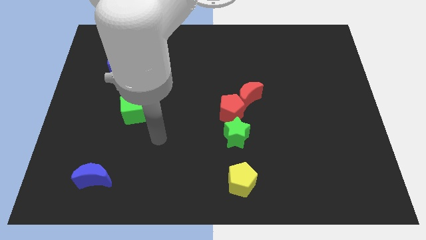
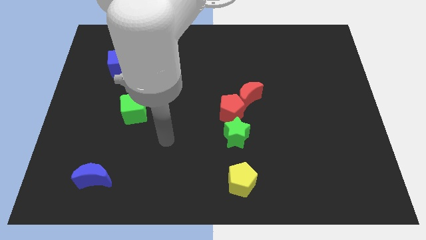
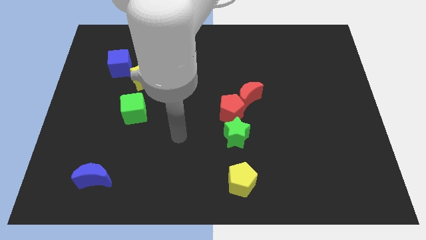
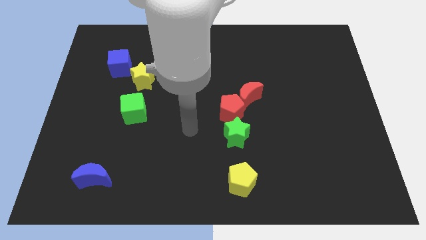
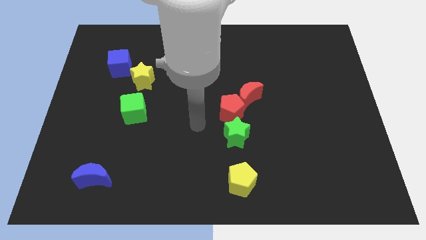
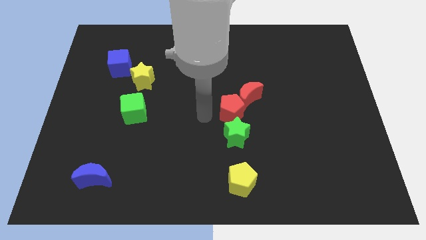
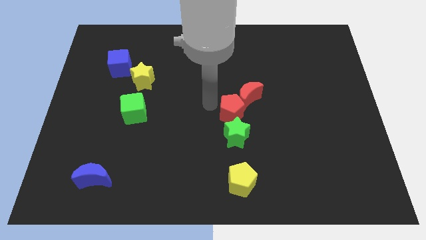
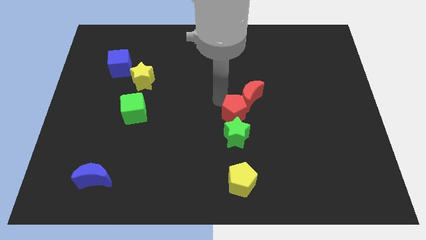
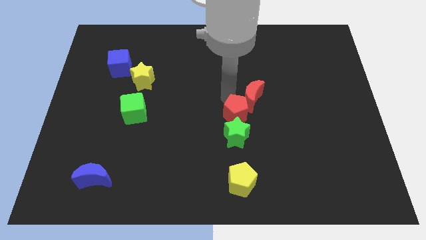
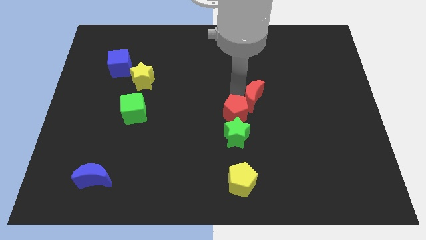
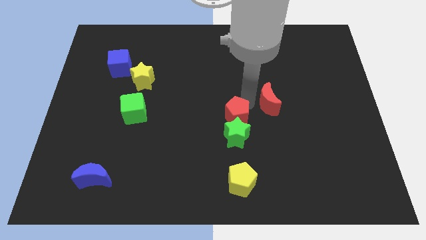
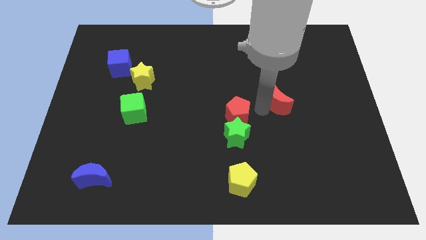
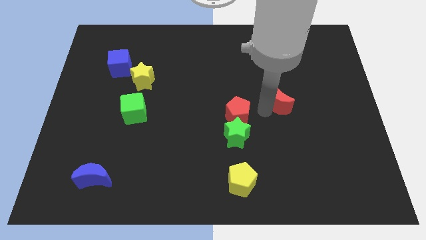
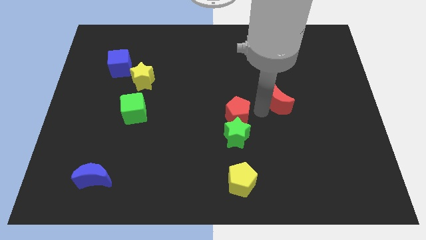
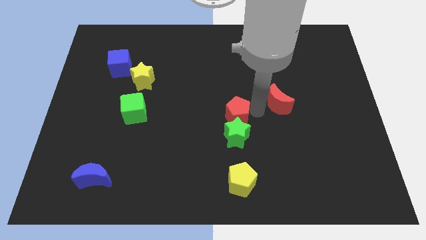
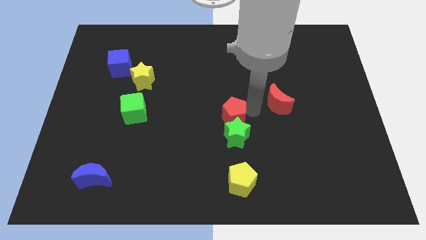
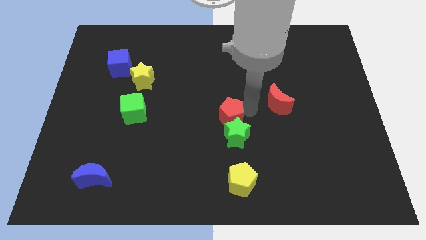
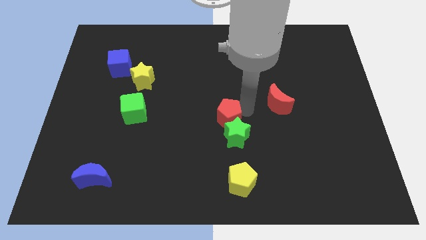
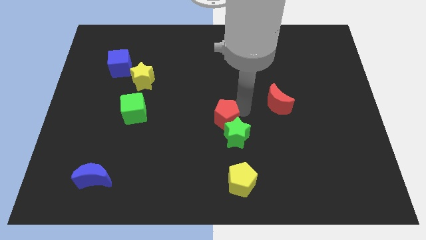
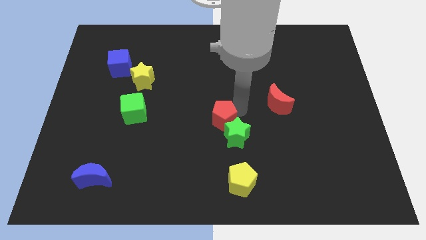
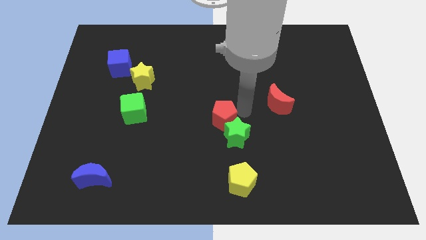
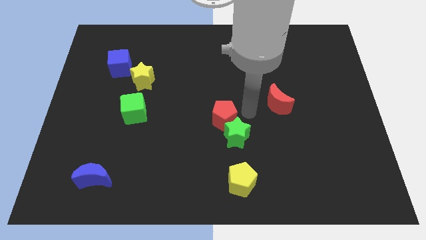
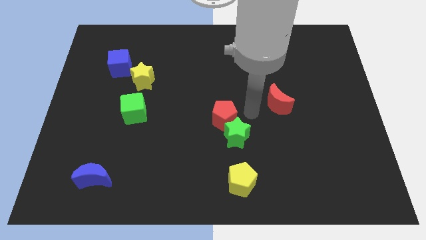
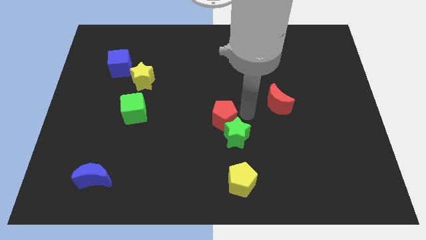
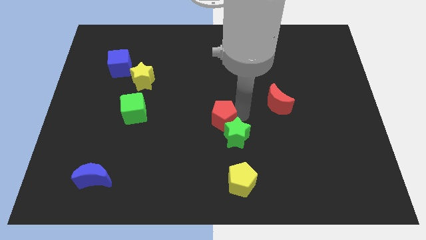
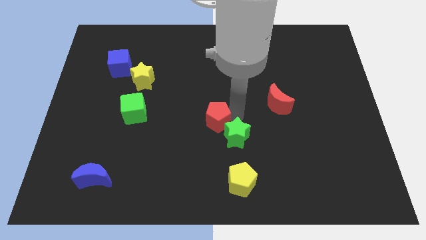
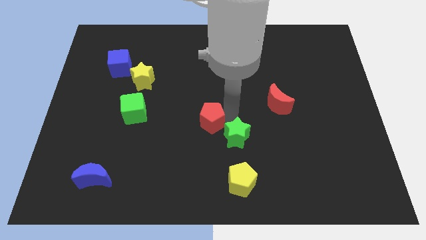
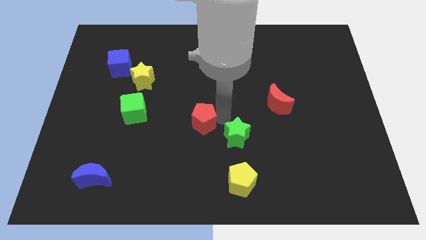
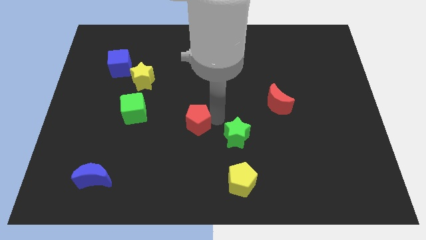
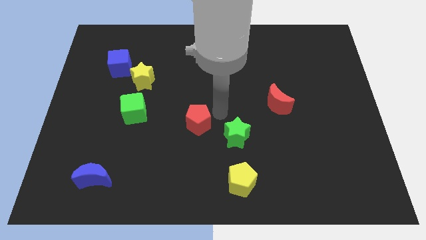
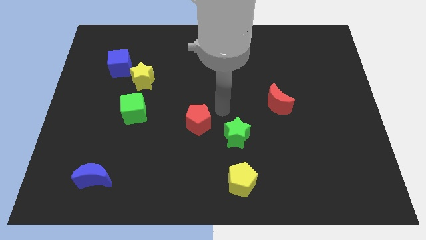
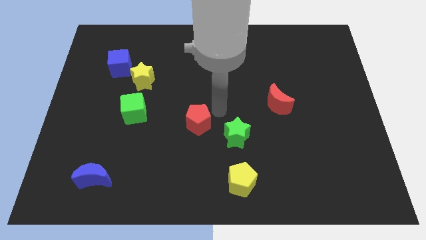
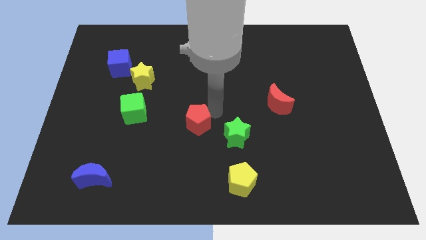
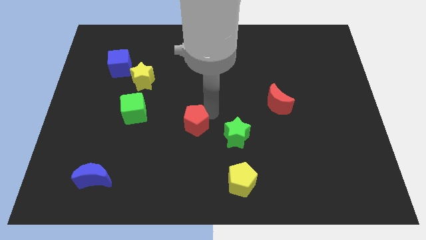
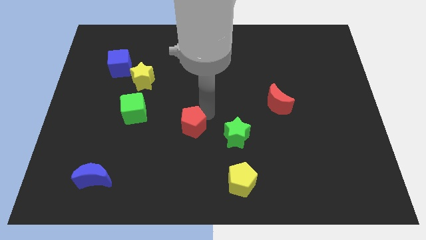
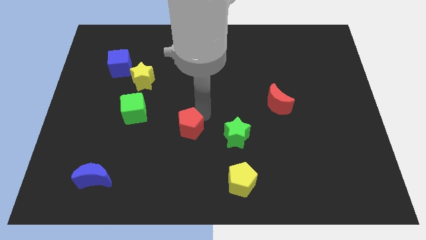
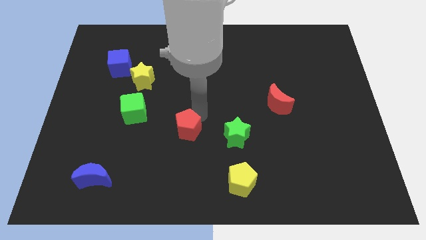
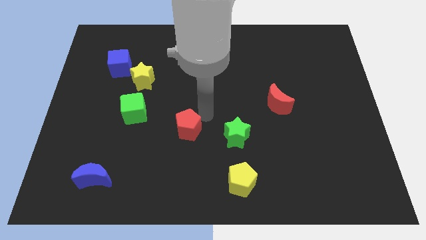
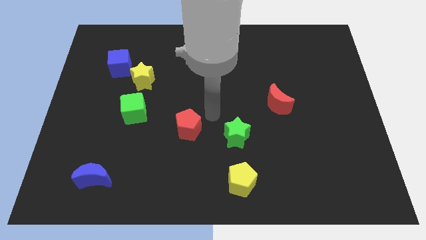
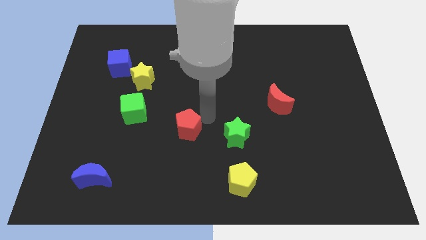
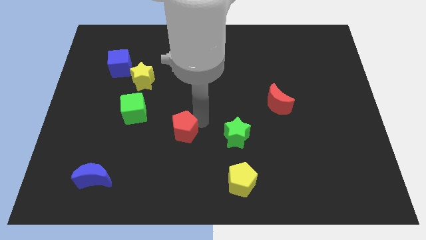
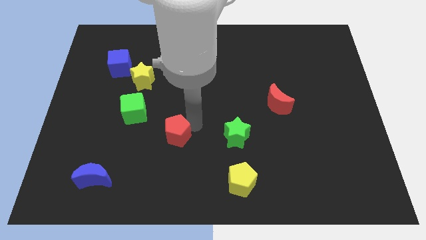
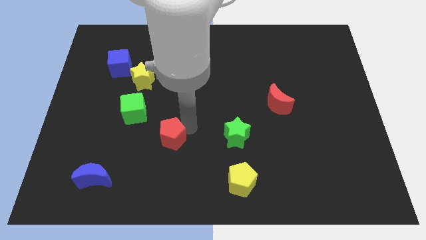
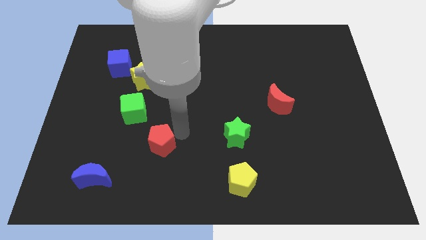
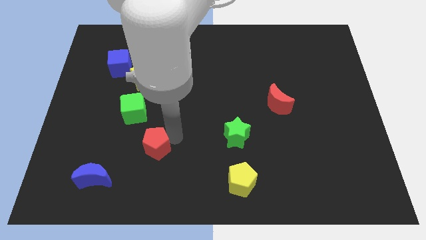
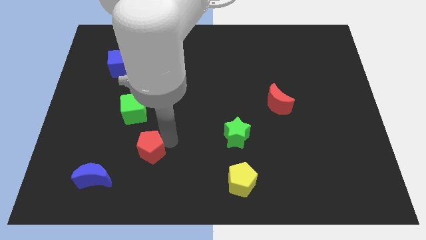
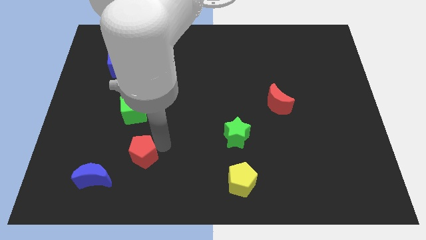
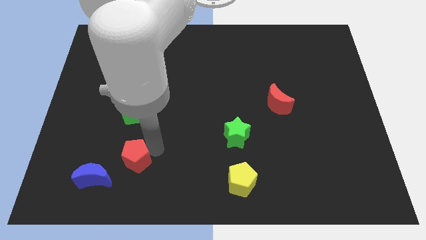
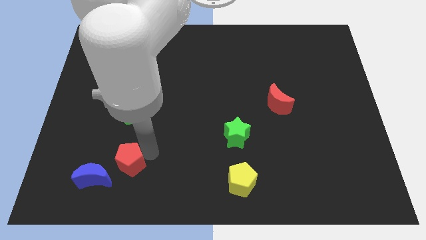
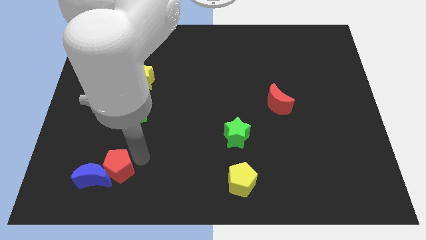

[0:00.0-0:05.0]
put the red pentagon next to the blue moon

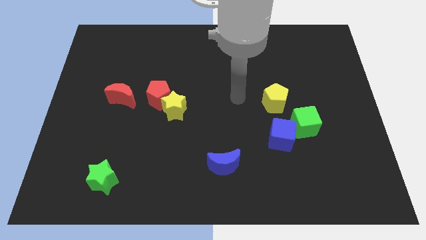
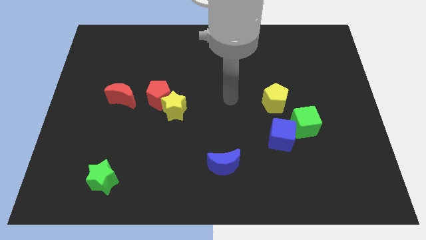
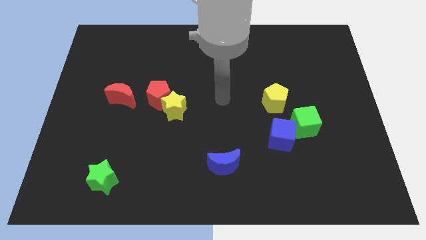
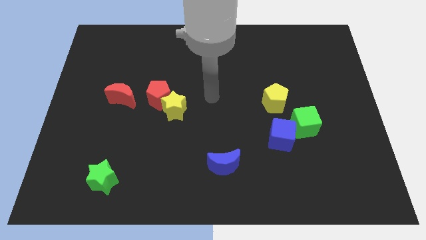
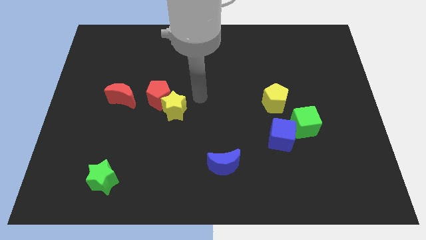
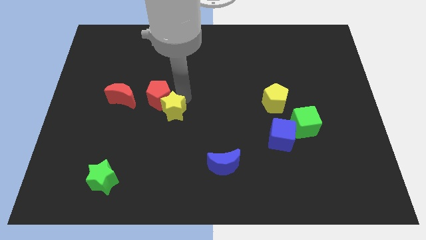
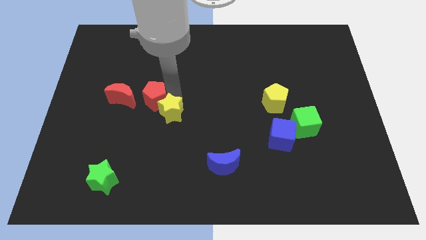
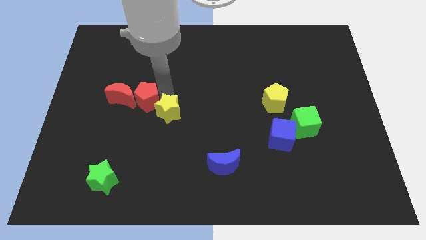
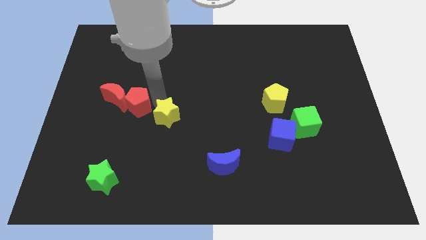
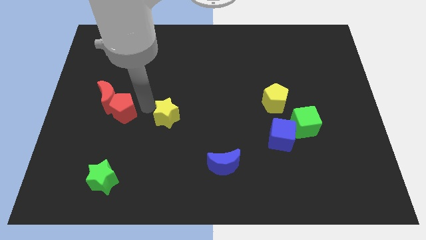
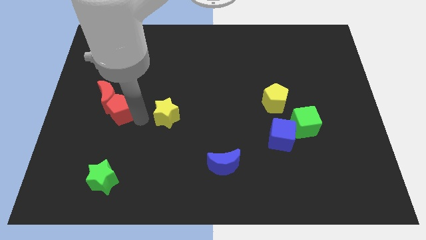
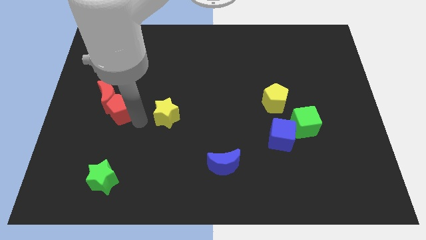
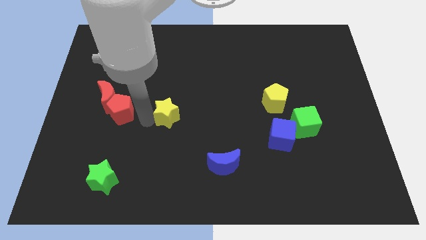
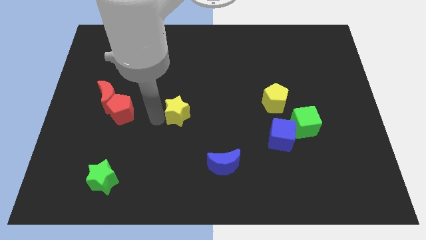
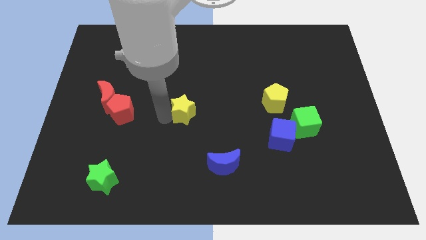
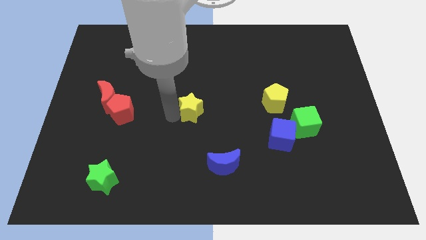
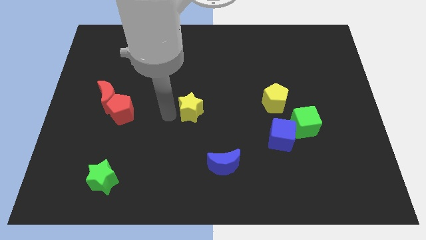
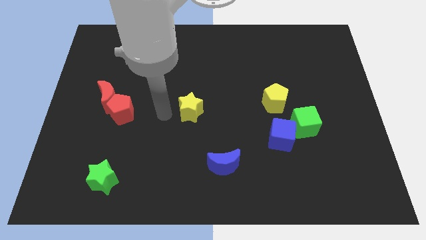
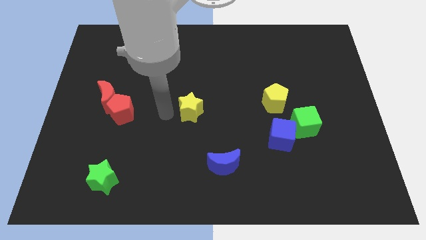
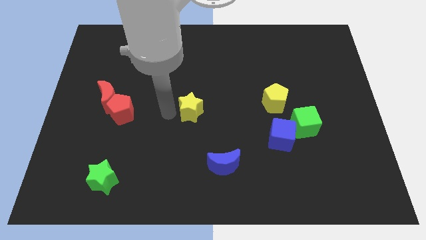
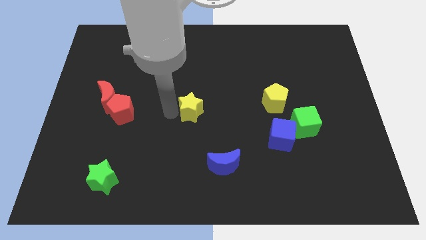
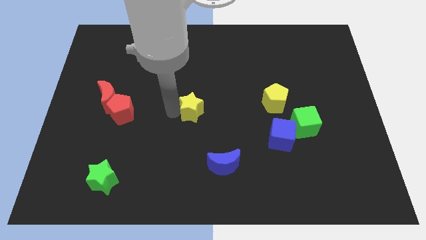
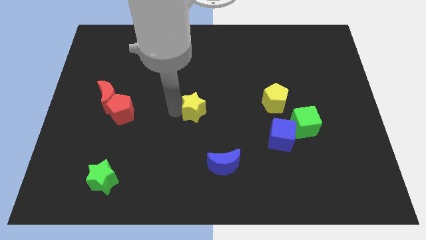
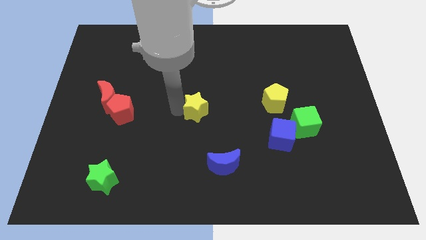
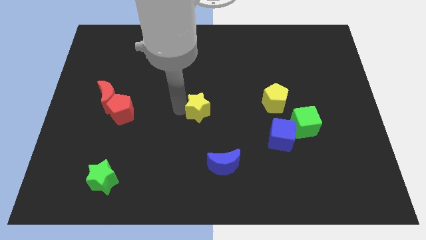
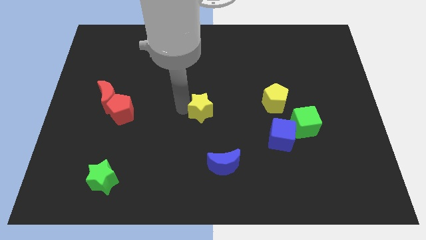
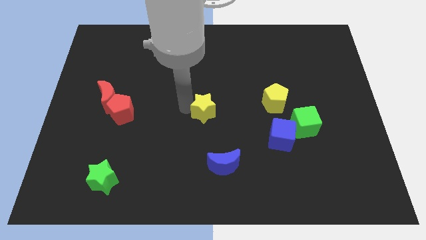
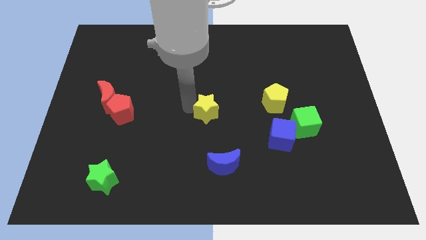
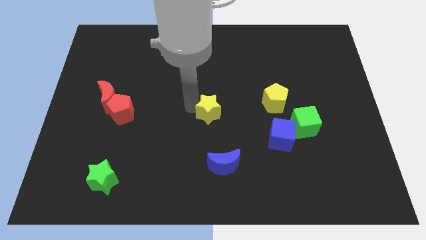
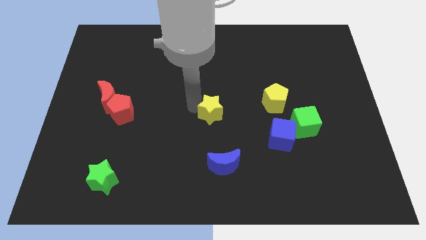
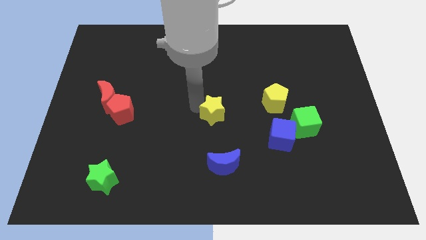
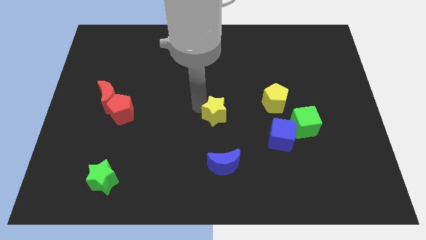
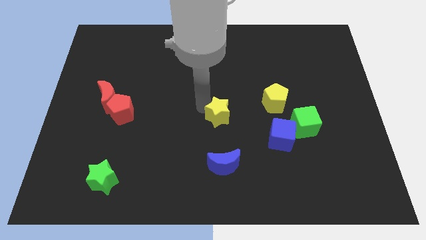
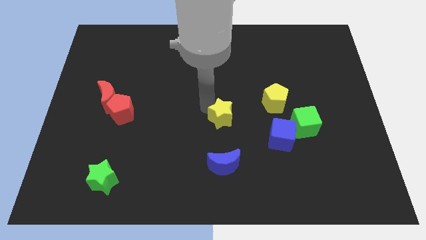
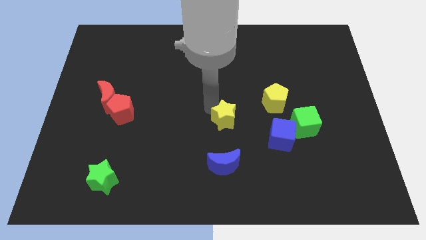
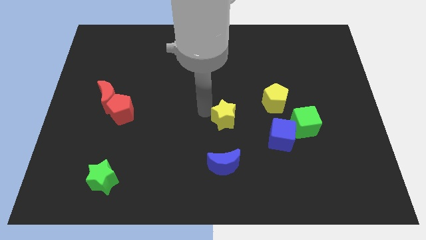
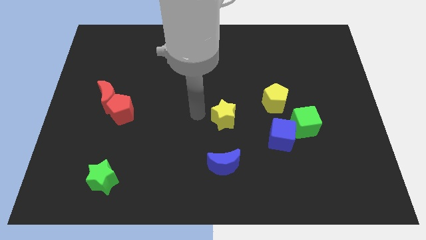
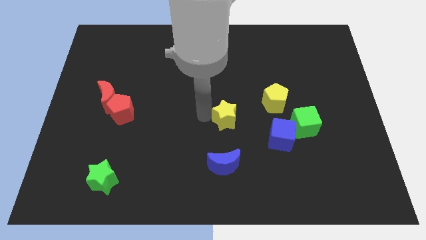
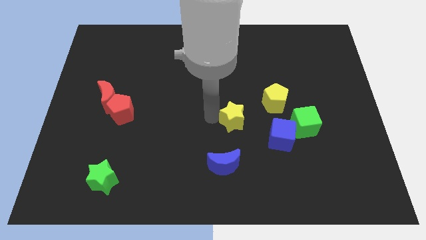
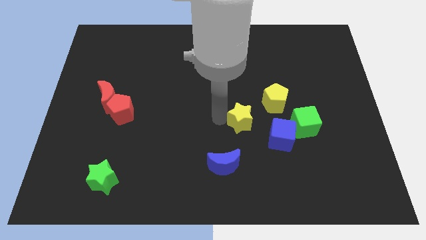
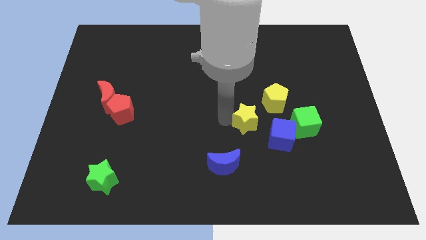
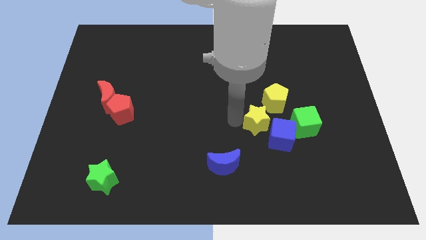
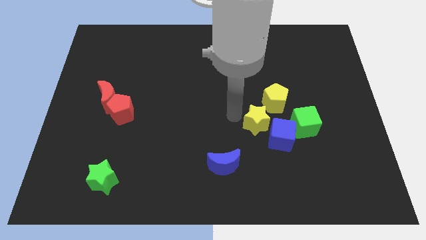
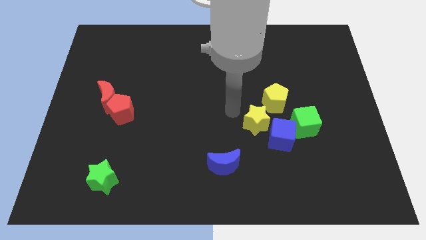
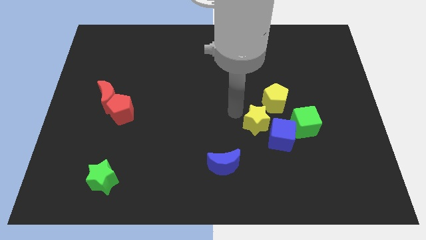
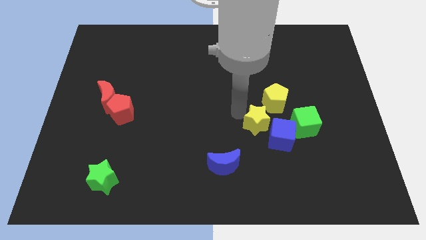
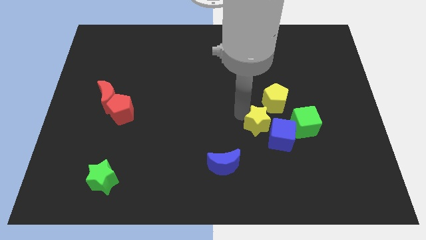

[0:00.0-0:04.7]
push the yellow star to the blue cube
